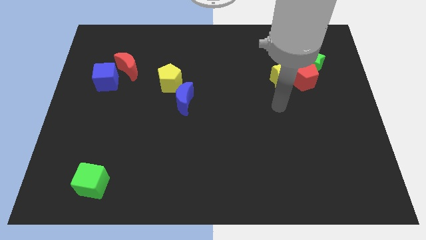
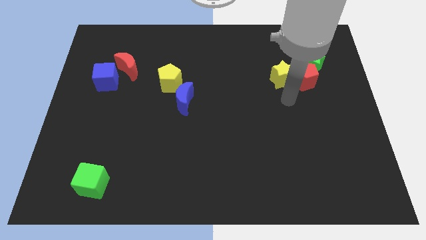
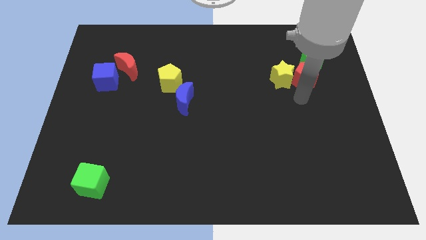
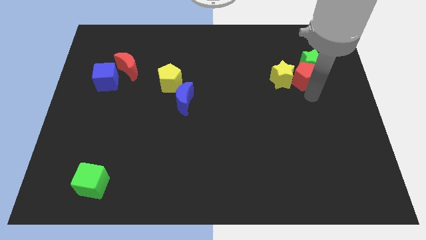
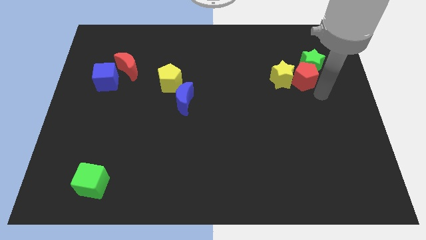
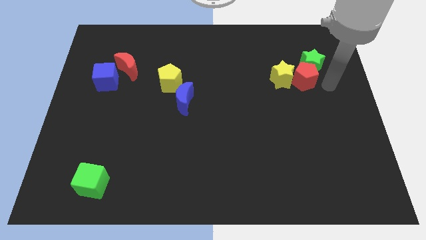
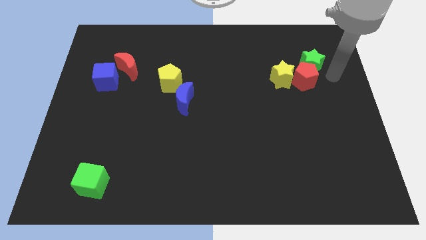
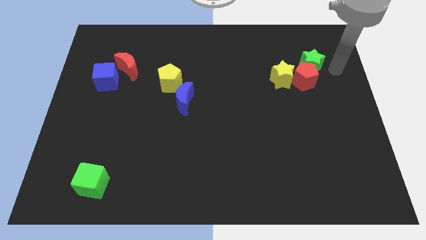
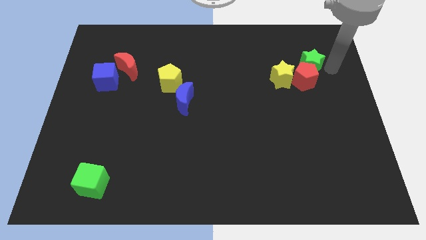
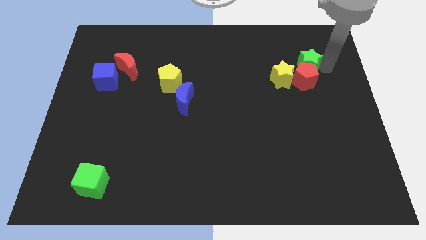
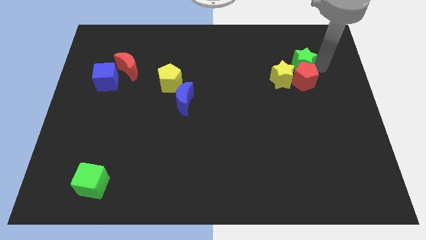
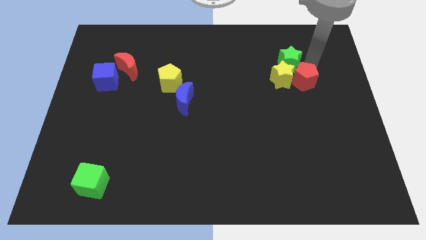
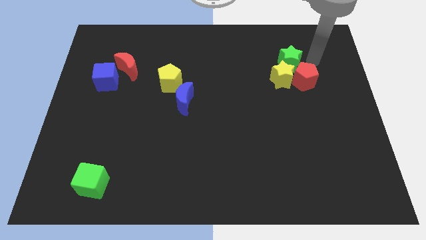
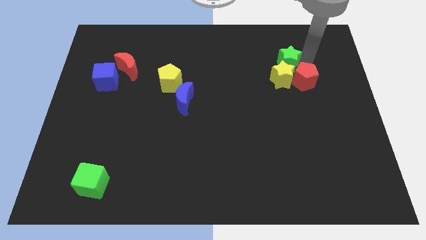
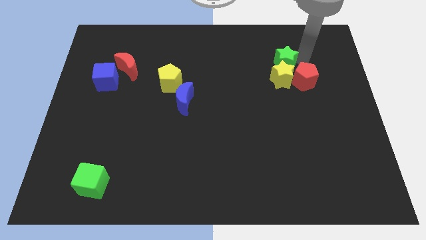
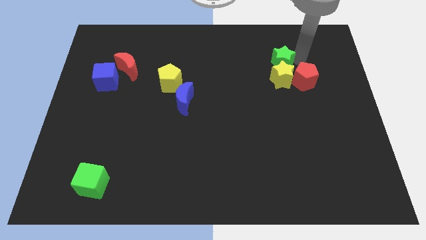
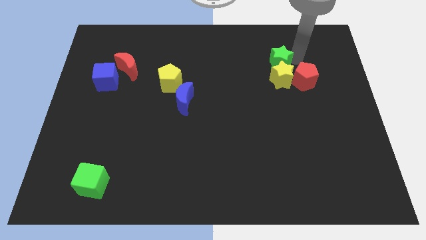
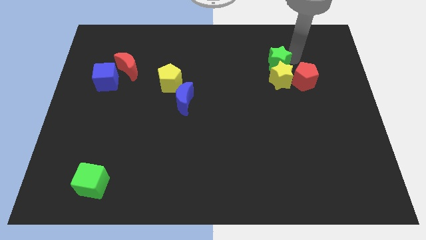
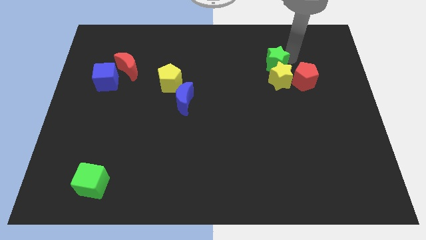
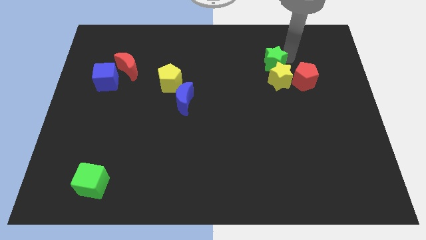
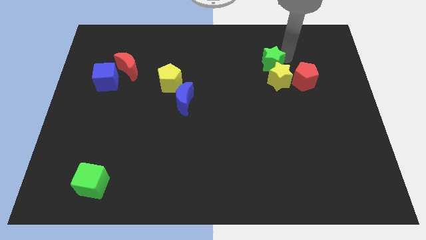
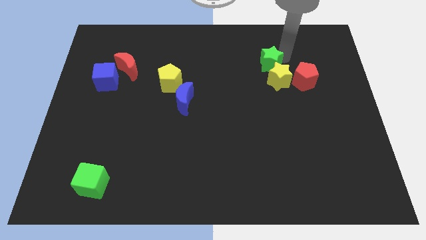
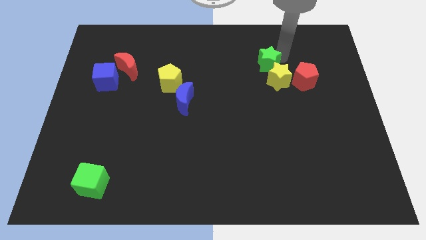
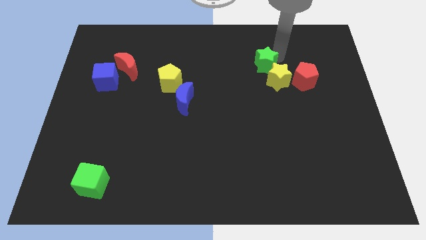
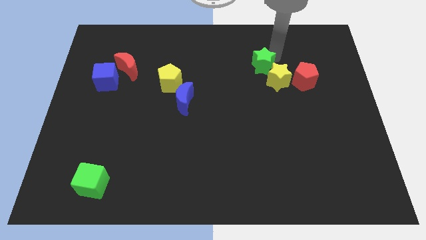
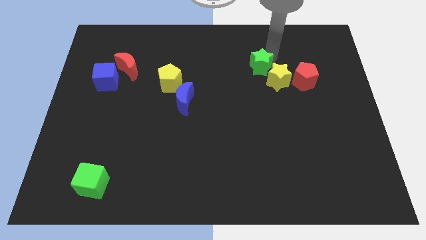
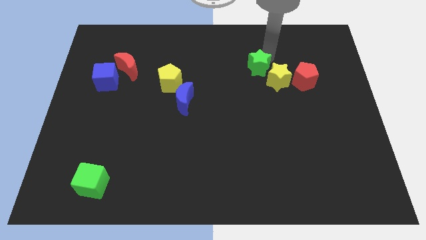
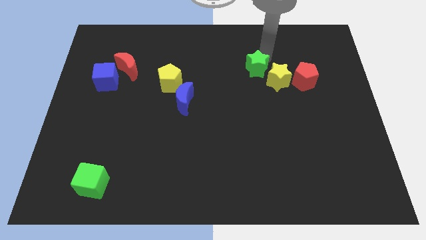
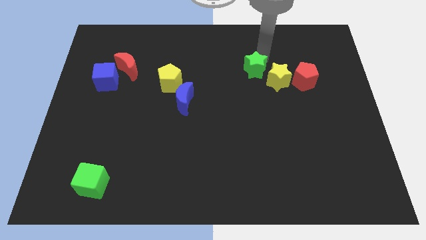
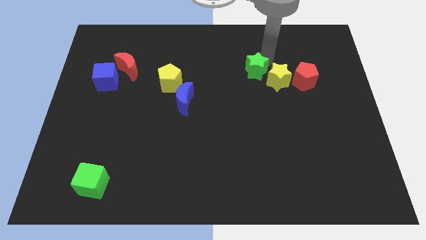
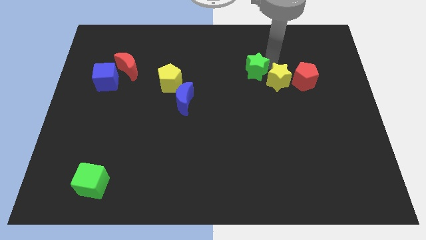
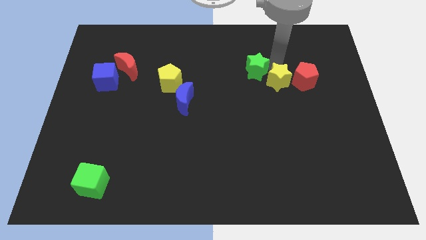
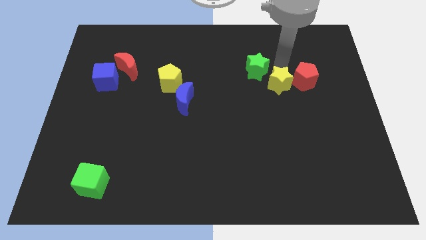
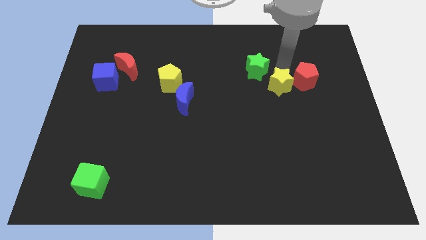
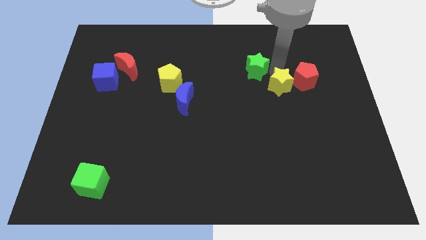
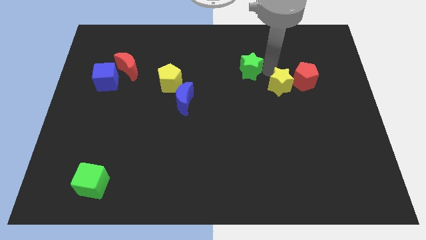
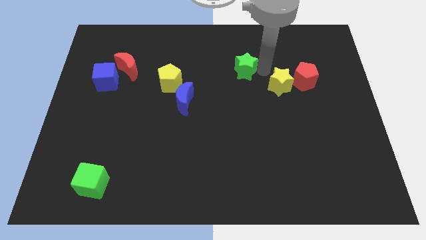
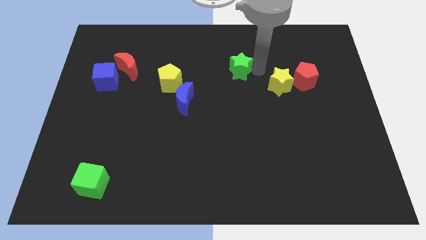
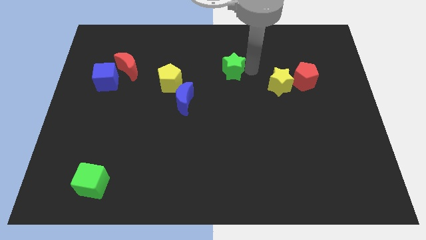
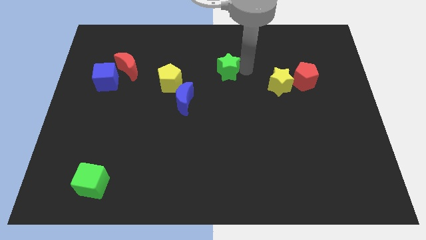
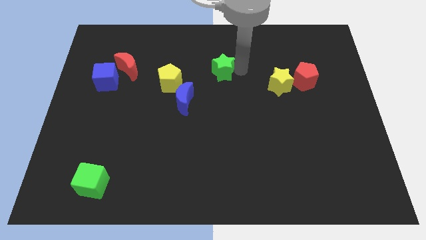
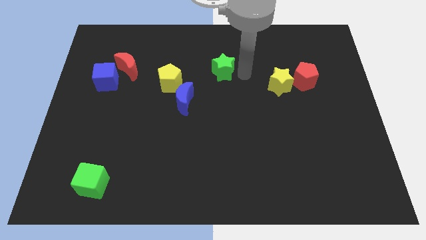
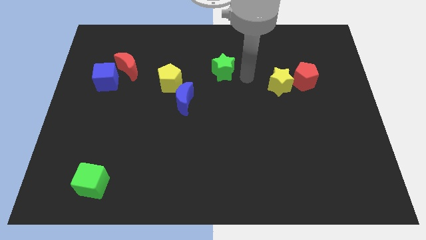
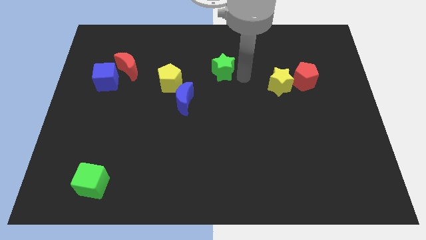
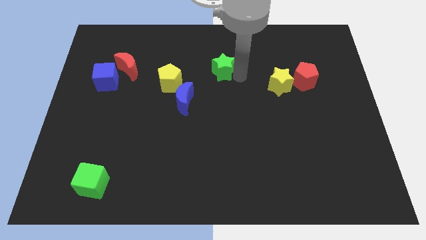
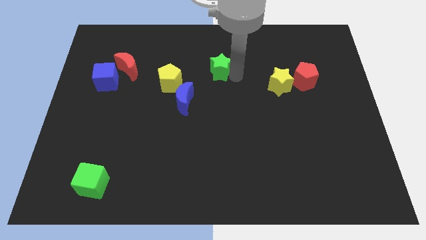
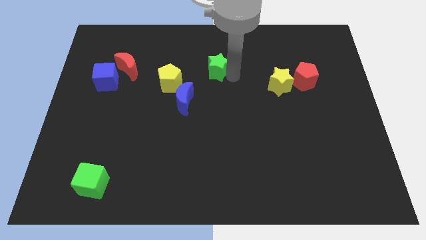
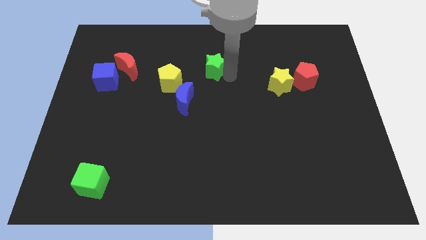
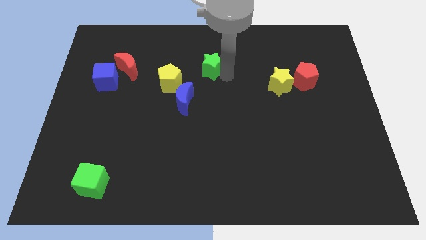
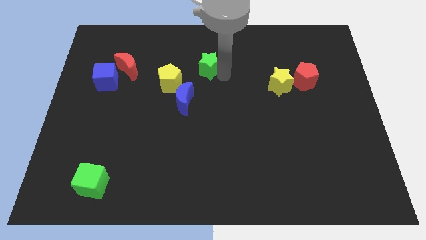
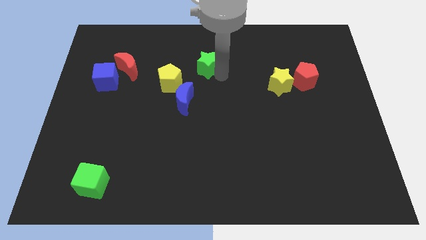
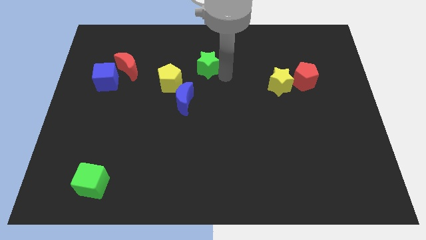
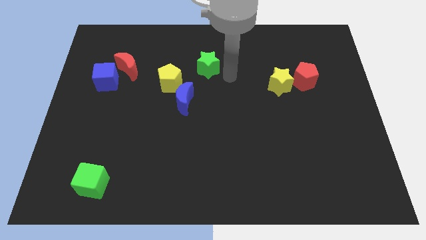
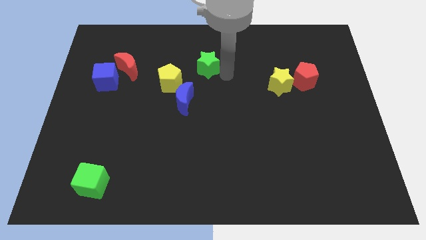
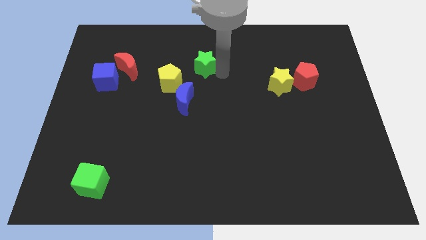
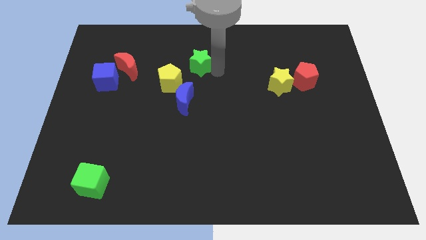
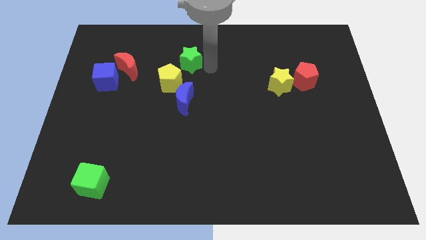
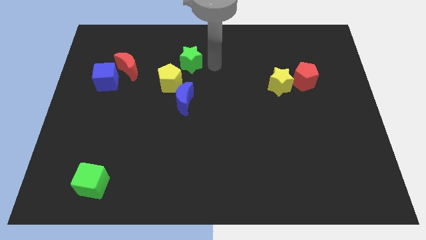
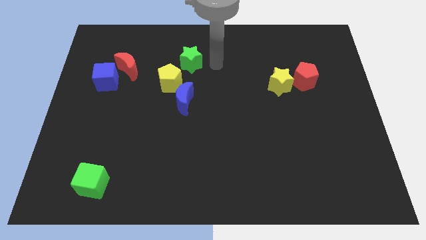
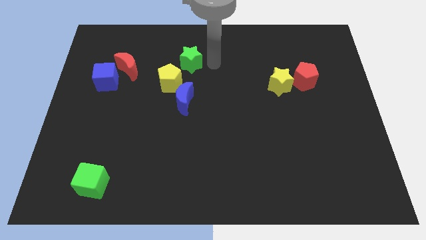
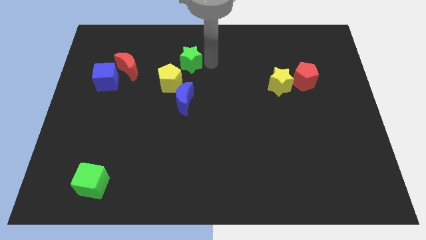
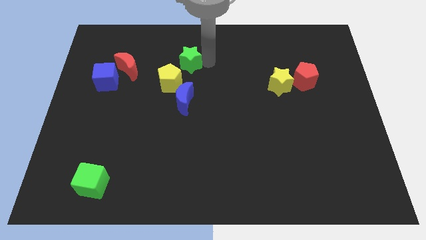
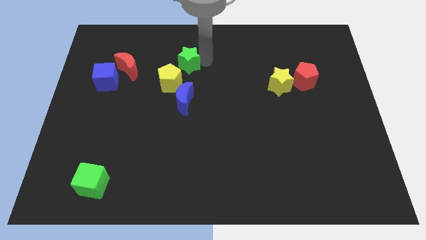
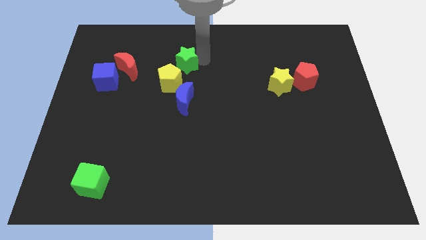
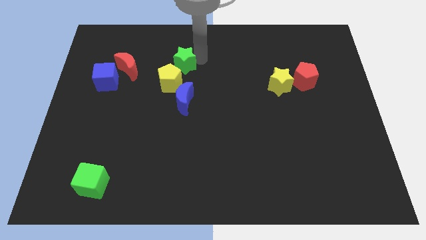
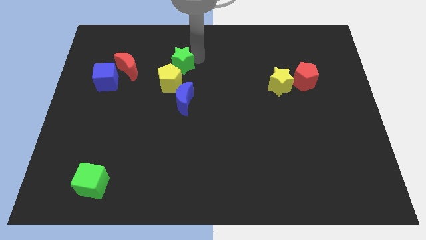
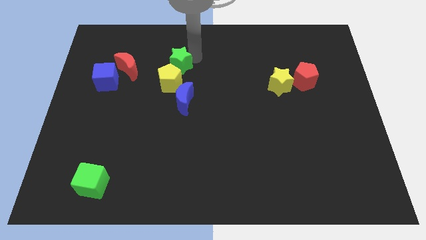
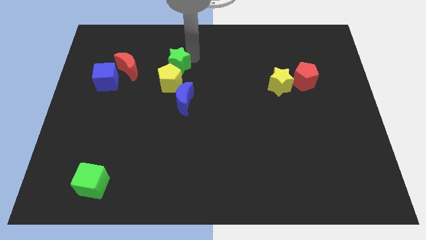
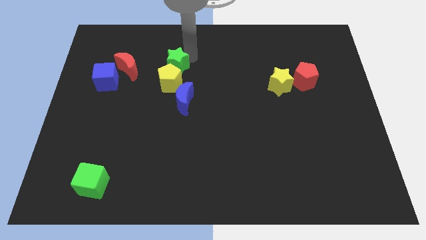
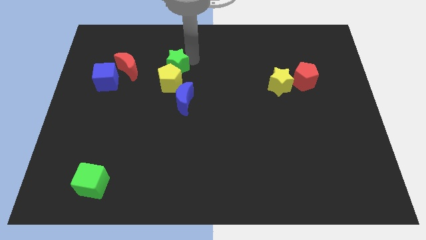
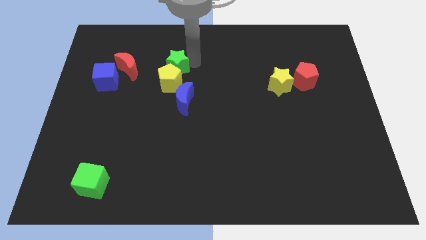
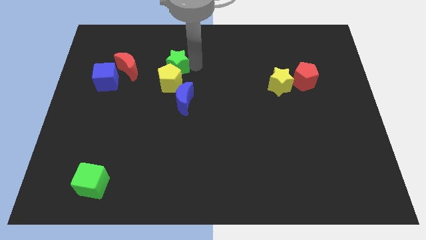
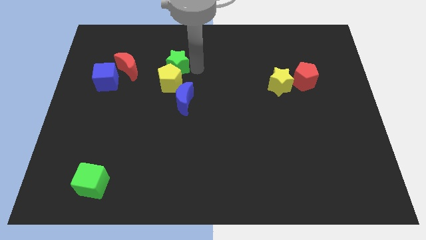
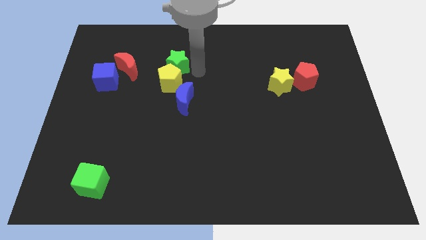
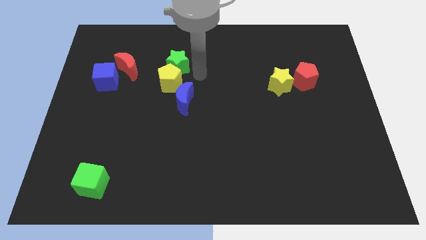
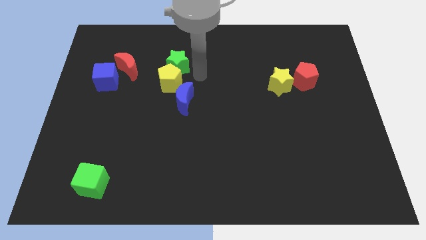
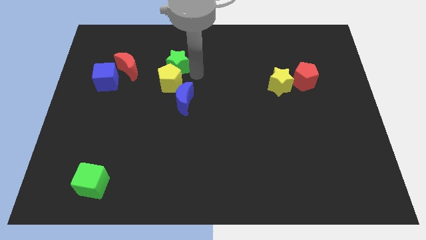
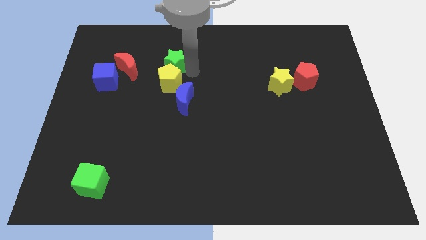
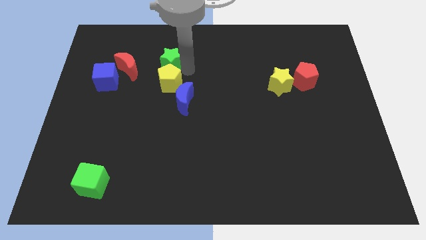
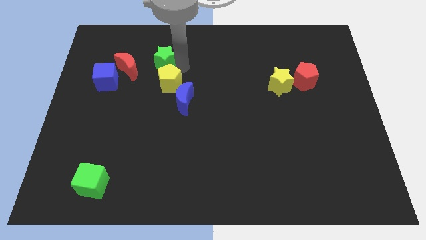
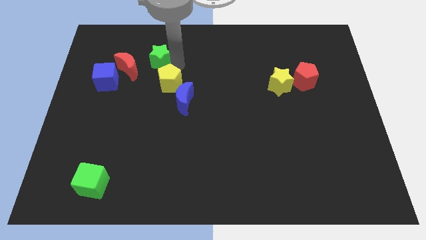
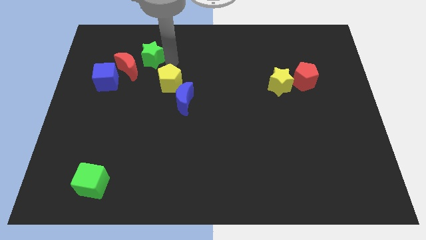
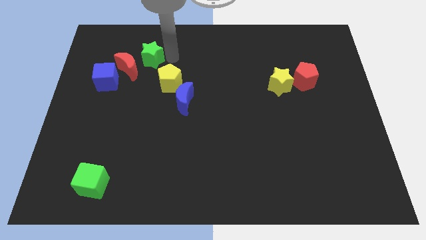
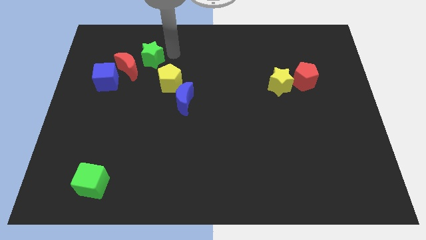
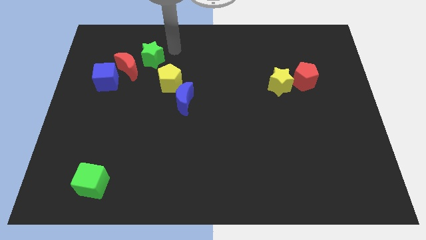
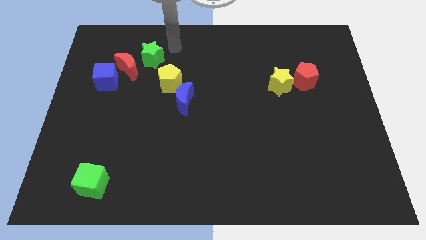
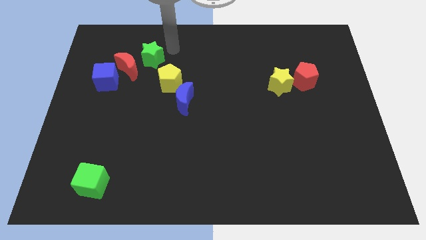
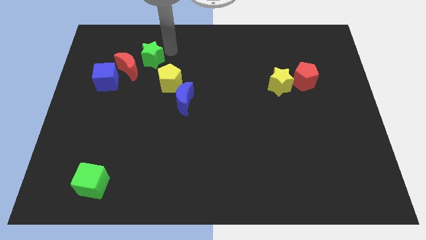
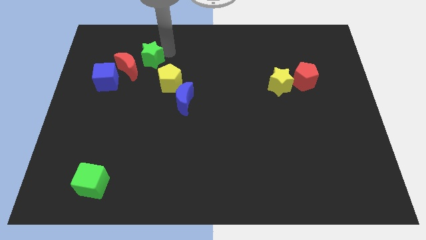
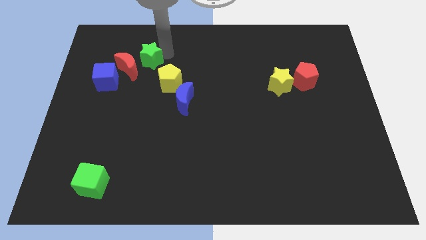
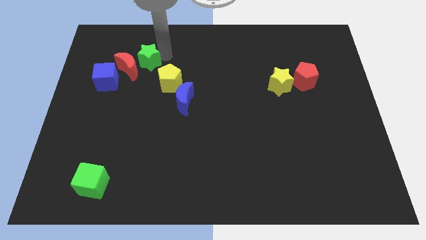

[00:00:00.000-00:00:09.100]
move the green star towards the red moon
